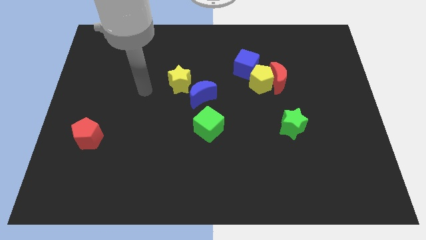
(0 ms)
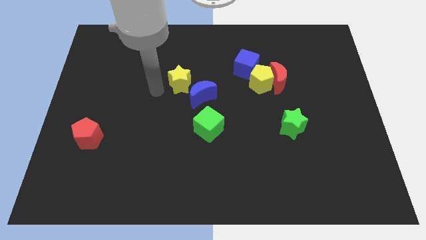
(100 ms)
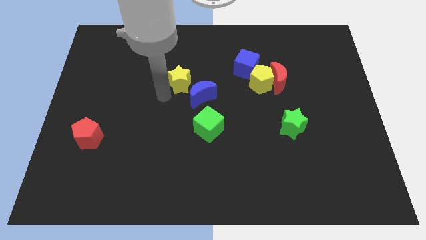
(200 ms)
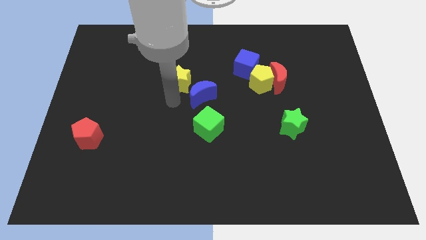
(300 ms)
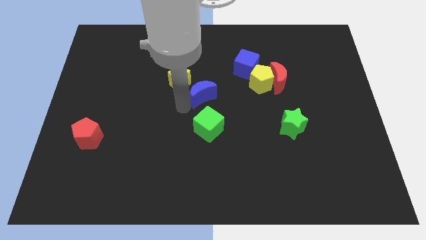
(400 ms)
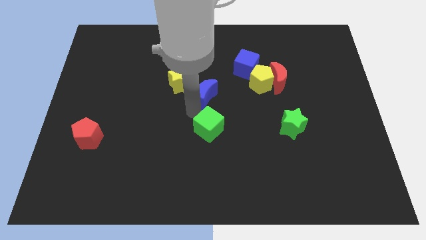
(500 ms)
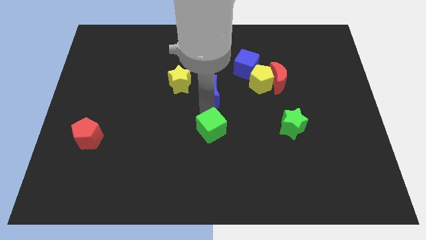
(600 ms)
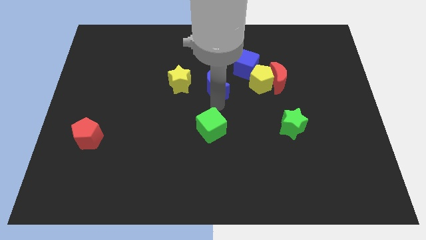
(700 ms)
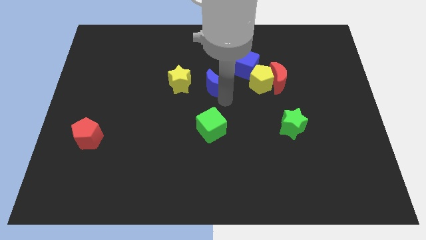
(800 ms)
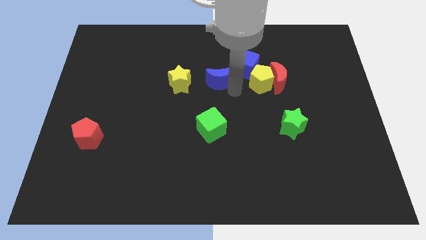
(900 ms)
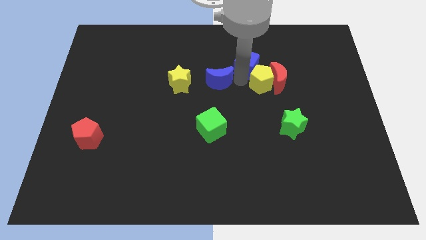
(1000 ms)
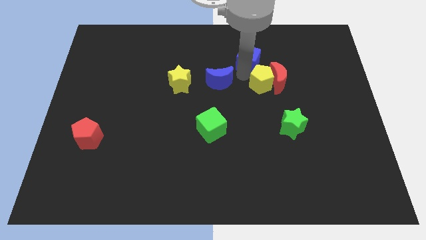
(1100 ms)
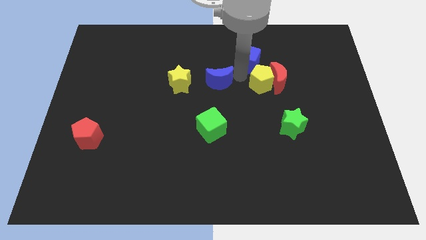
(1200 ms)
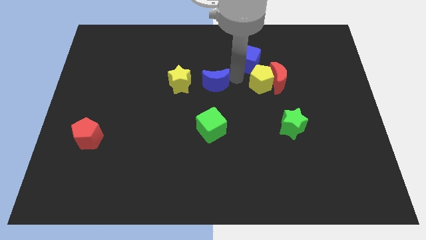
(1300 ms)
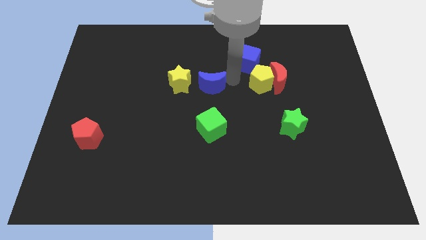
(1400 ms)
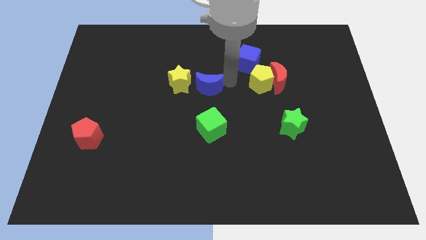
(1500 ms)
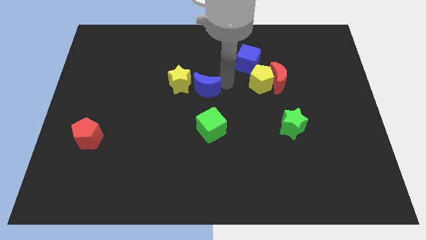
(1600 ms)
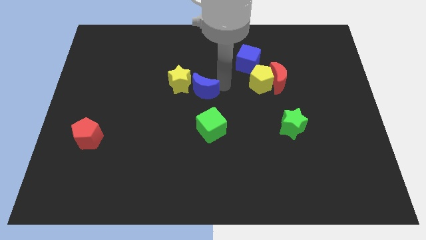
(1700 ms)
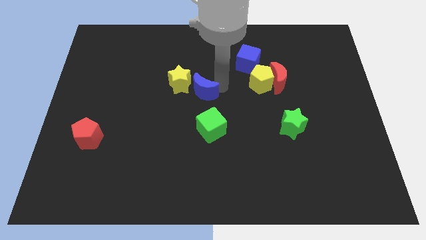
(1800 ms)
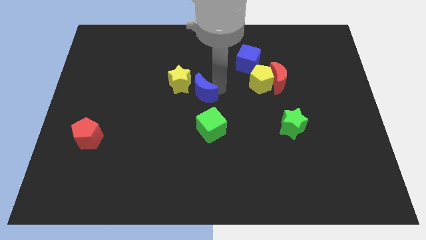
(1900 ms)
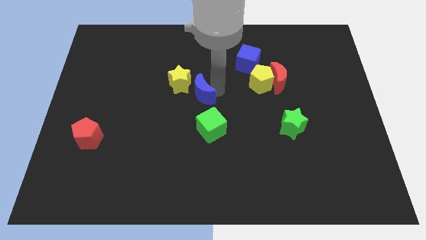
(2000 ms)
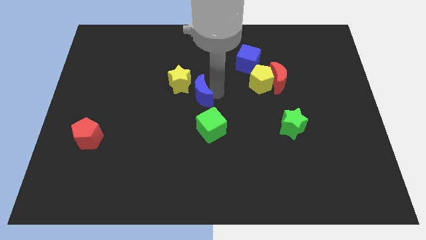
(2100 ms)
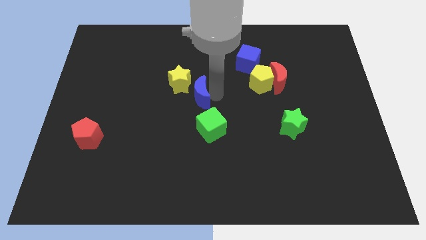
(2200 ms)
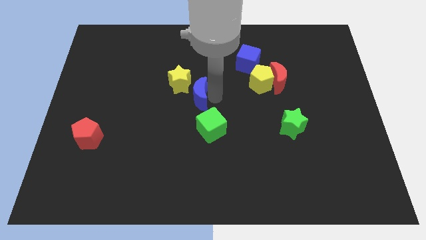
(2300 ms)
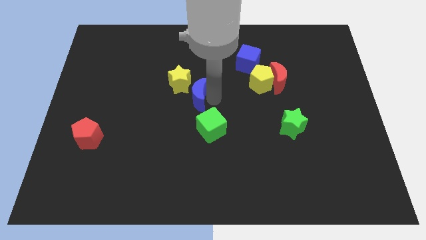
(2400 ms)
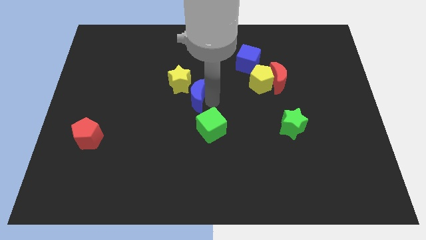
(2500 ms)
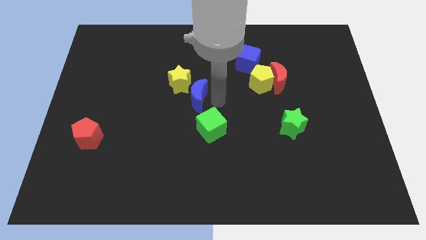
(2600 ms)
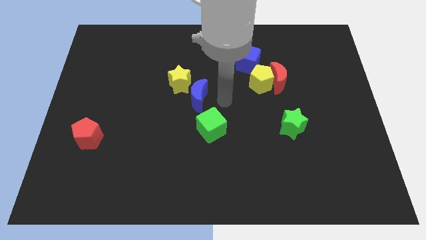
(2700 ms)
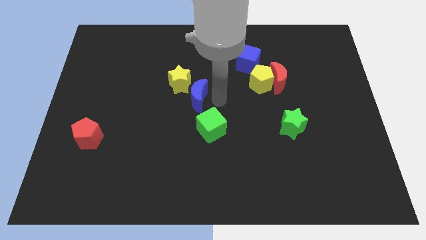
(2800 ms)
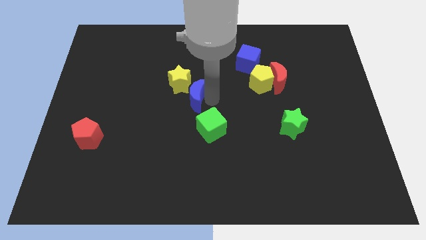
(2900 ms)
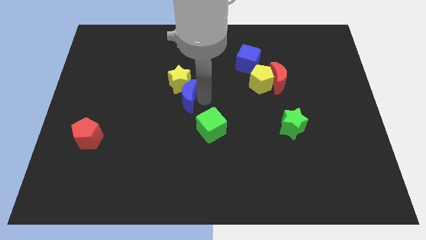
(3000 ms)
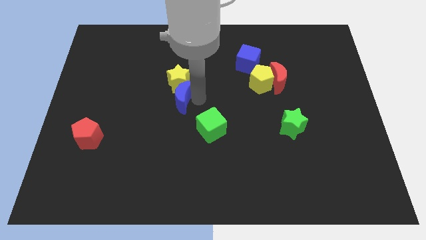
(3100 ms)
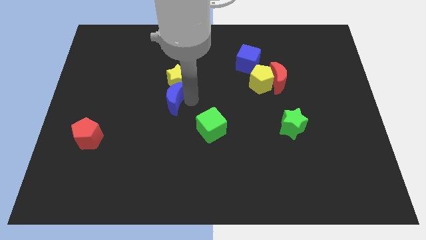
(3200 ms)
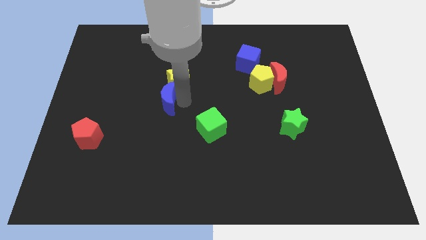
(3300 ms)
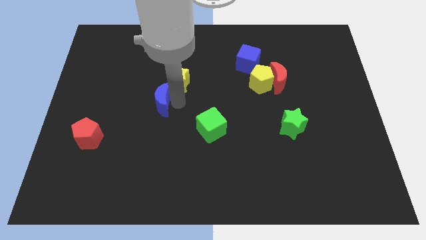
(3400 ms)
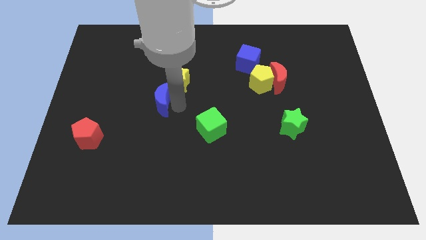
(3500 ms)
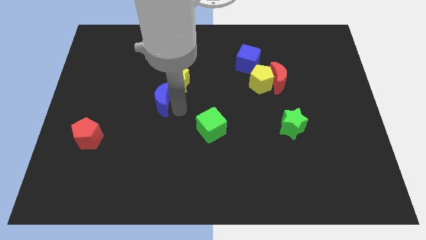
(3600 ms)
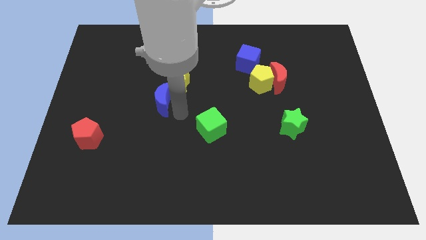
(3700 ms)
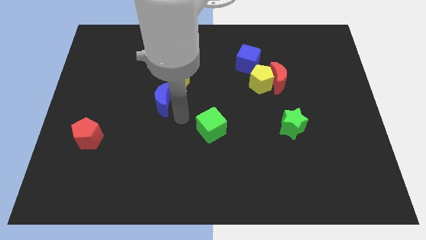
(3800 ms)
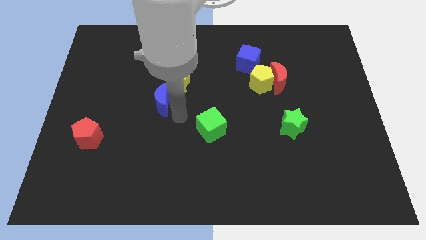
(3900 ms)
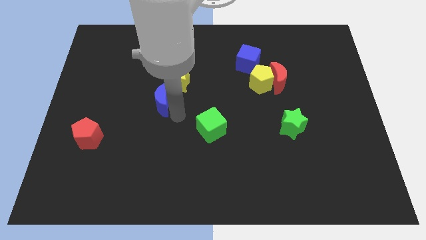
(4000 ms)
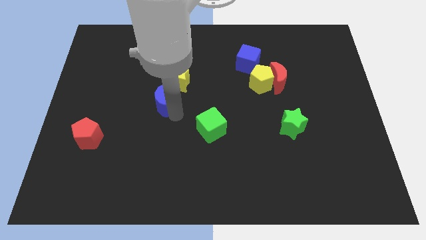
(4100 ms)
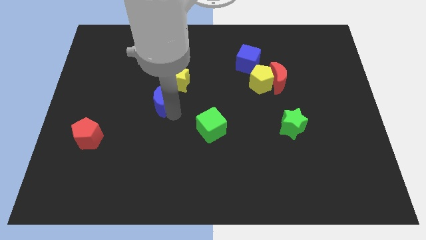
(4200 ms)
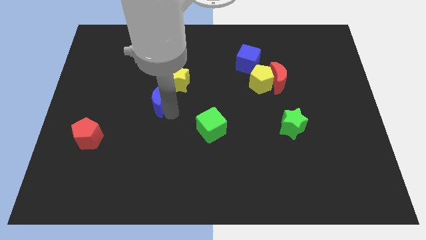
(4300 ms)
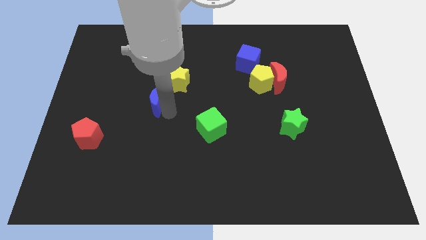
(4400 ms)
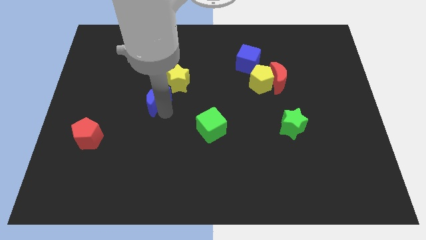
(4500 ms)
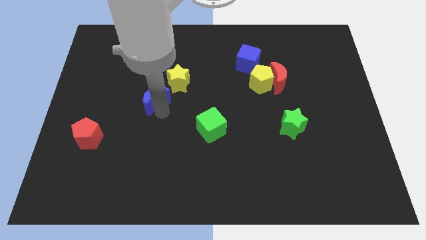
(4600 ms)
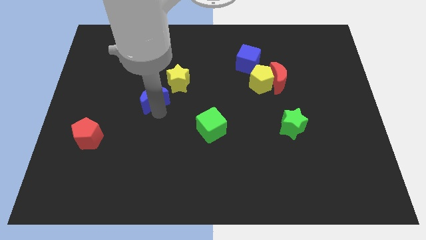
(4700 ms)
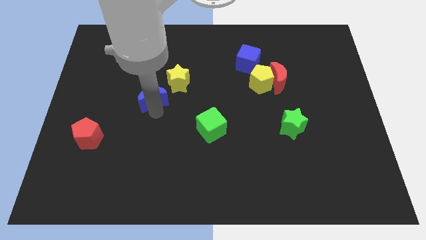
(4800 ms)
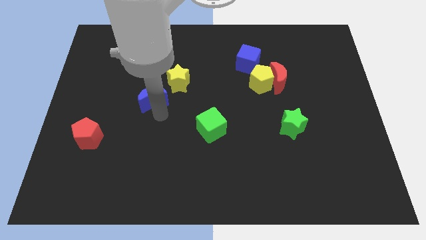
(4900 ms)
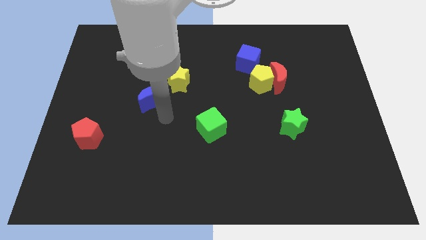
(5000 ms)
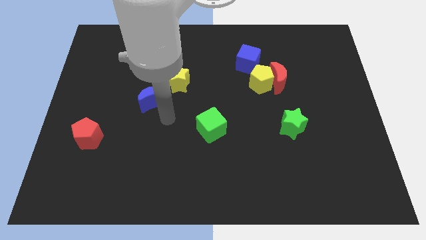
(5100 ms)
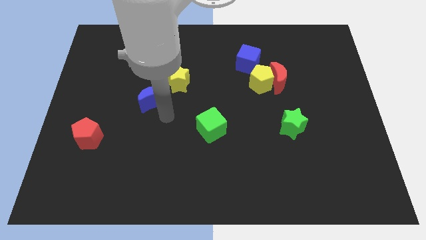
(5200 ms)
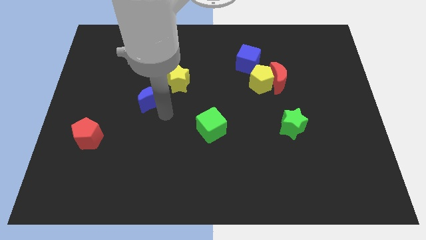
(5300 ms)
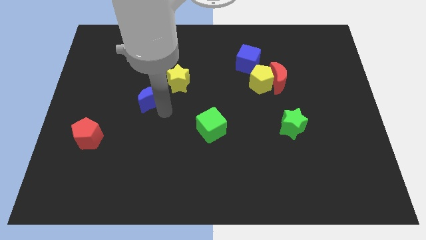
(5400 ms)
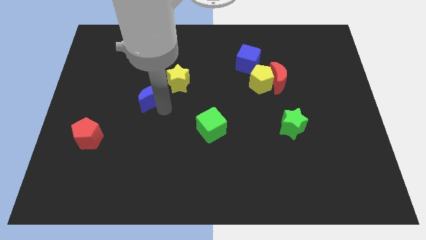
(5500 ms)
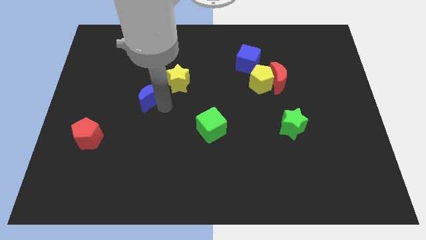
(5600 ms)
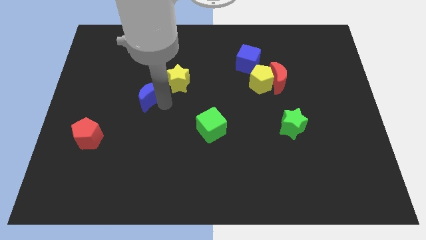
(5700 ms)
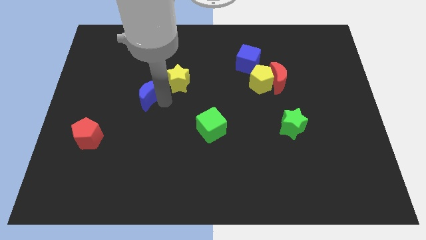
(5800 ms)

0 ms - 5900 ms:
slide the blue moon to the left side of the yellow star

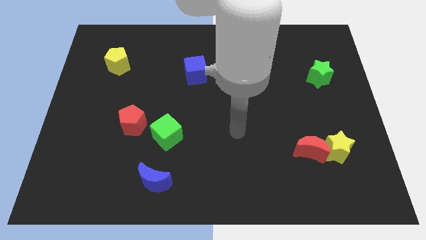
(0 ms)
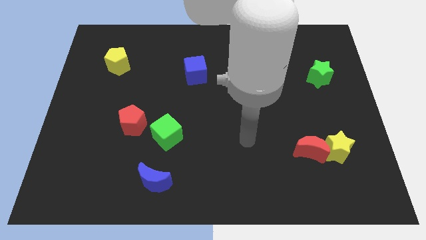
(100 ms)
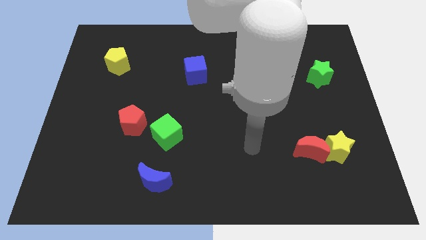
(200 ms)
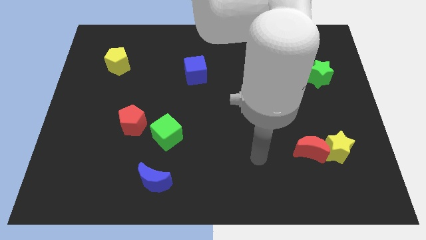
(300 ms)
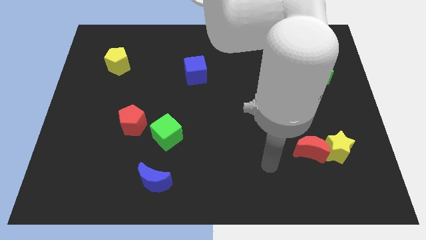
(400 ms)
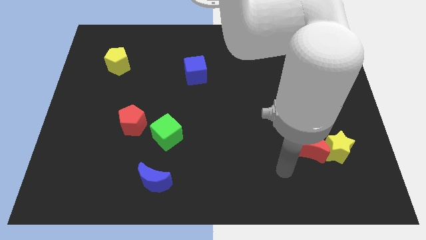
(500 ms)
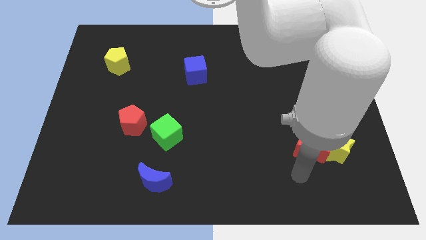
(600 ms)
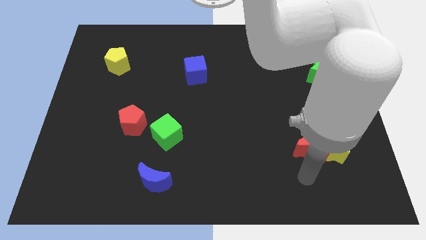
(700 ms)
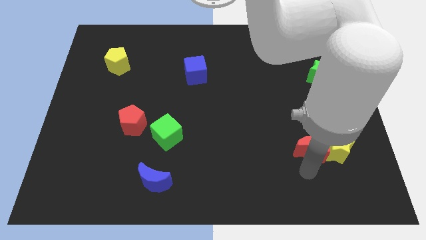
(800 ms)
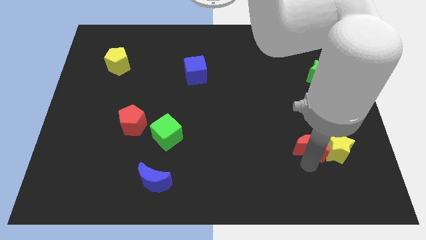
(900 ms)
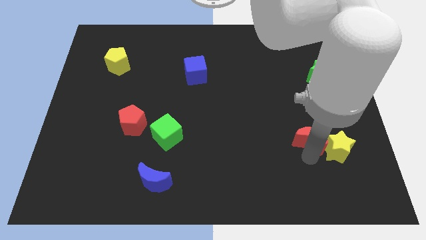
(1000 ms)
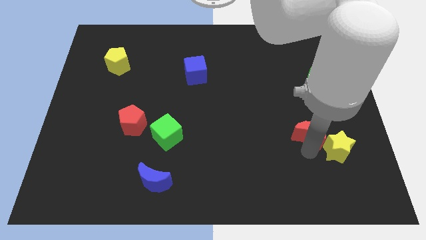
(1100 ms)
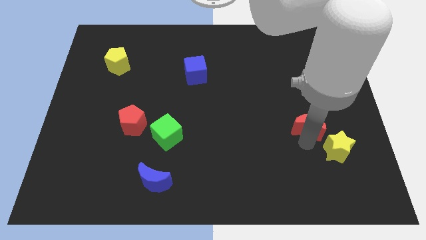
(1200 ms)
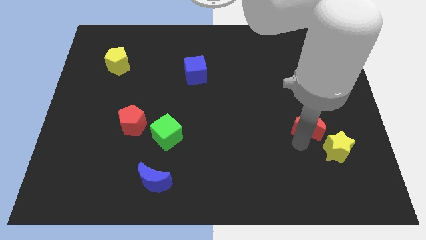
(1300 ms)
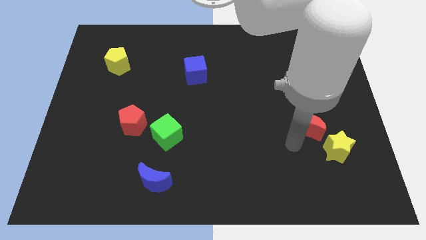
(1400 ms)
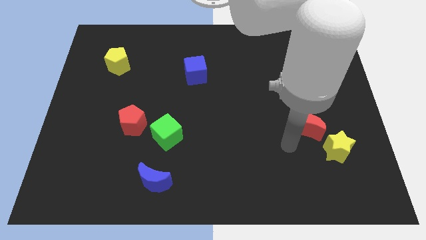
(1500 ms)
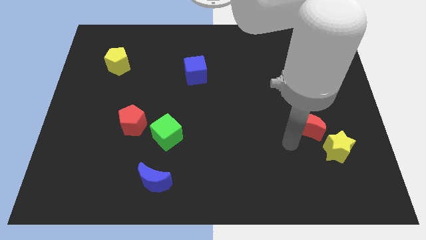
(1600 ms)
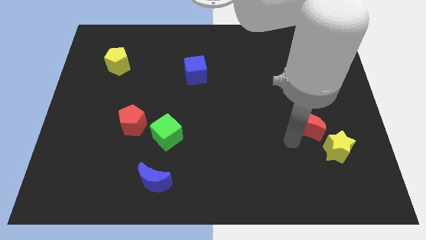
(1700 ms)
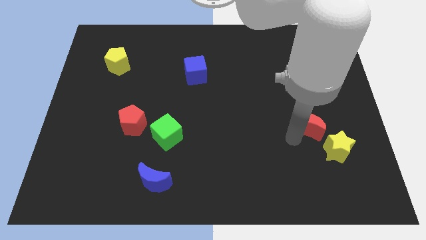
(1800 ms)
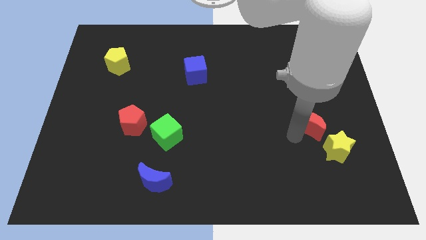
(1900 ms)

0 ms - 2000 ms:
put the red moon to the top side of the yellow star
